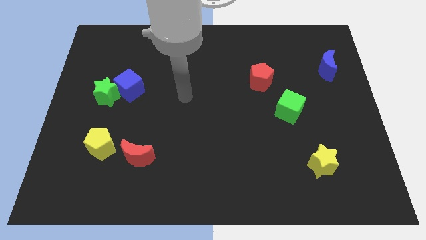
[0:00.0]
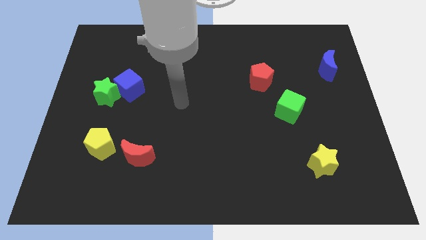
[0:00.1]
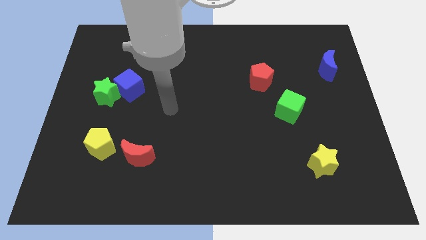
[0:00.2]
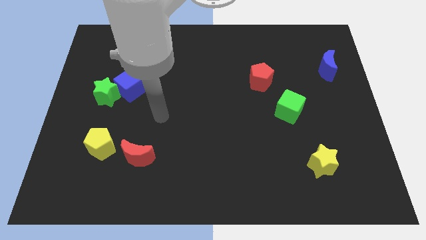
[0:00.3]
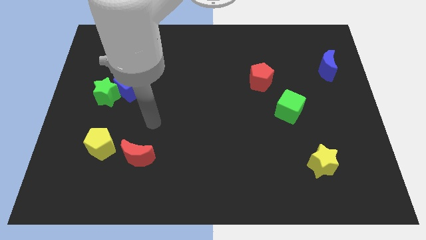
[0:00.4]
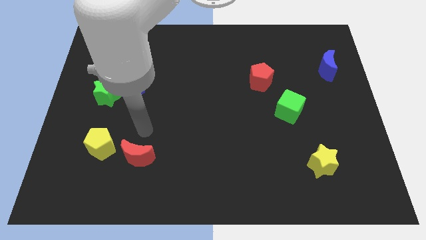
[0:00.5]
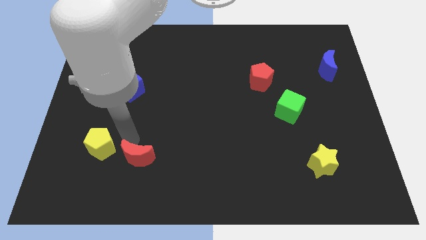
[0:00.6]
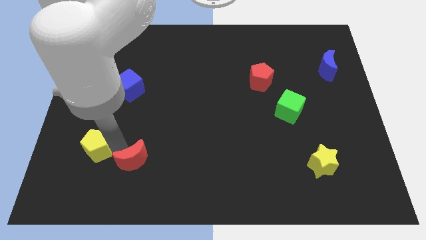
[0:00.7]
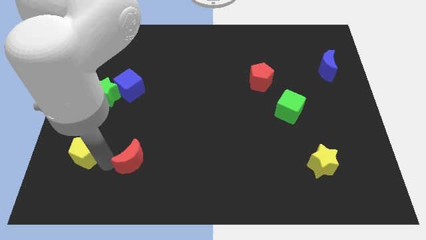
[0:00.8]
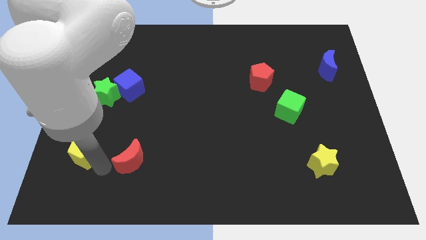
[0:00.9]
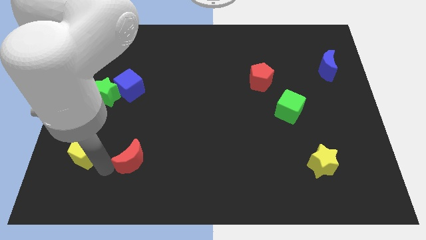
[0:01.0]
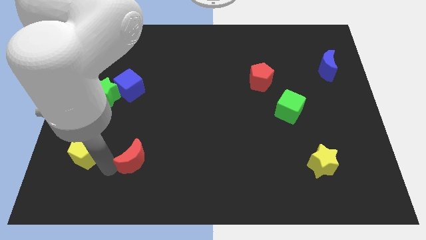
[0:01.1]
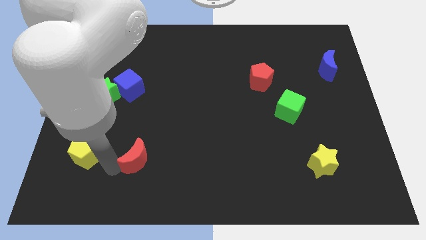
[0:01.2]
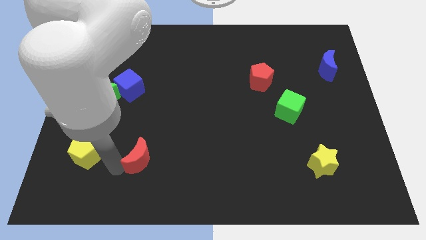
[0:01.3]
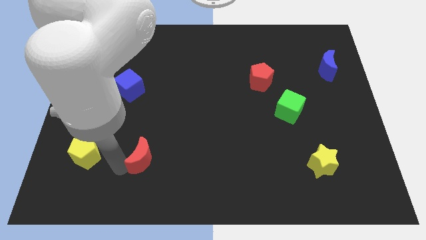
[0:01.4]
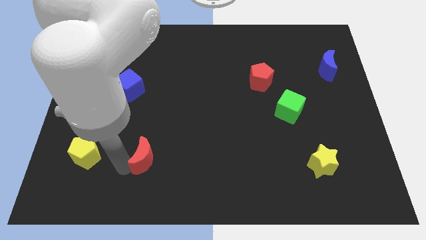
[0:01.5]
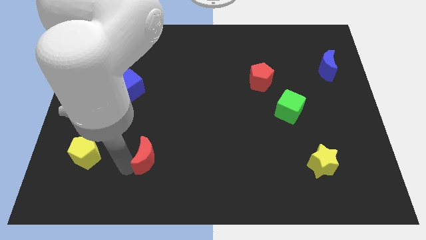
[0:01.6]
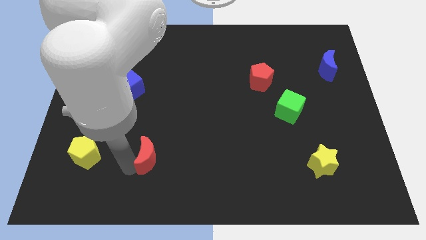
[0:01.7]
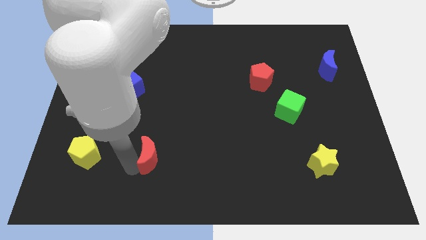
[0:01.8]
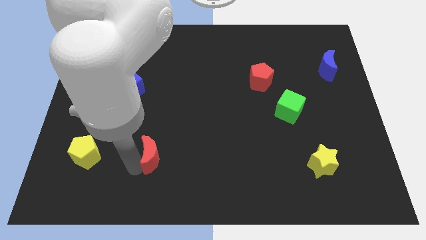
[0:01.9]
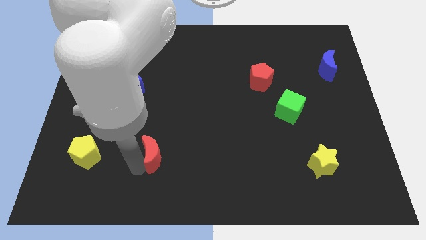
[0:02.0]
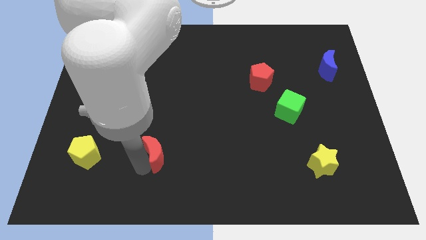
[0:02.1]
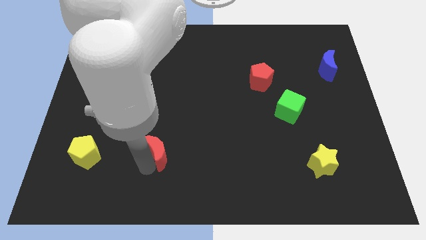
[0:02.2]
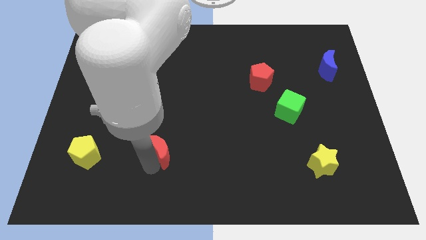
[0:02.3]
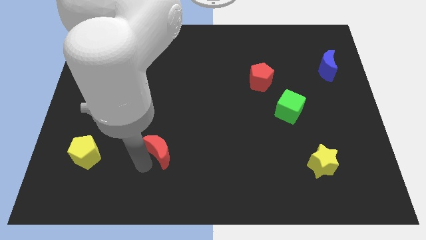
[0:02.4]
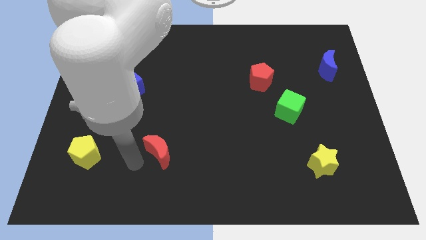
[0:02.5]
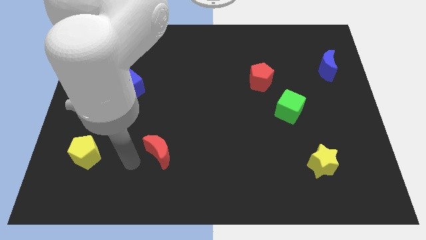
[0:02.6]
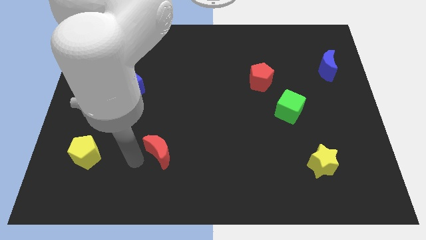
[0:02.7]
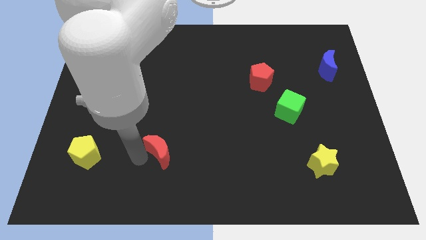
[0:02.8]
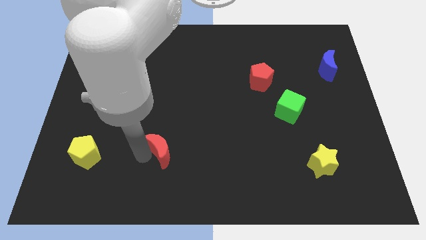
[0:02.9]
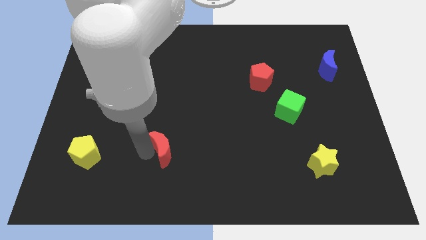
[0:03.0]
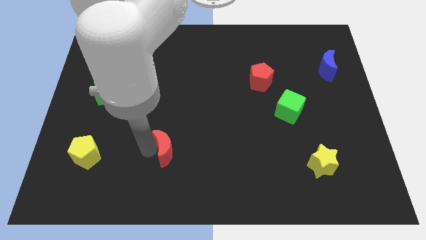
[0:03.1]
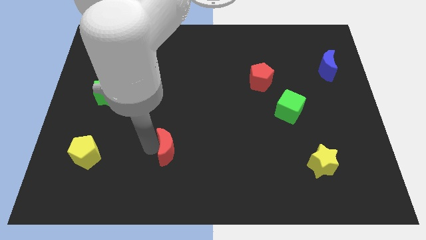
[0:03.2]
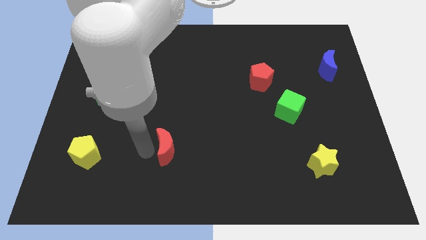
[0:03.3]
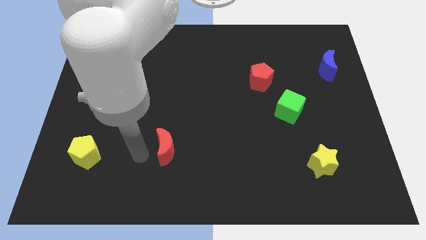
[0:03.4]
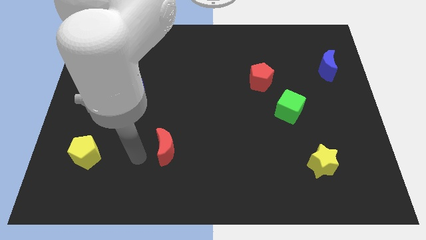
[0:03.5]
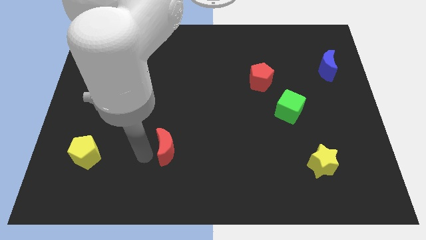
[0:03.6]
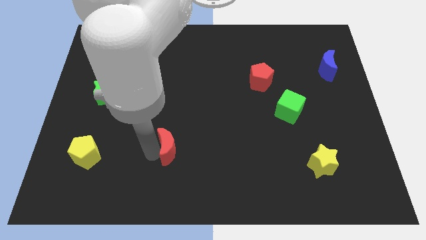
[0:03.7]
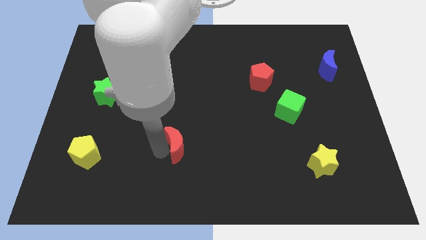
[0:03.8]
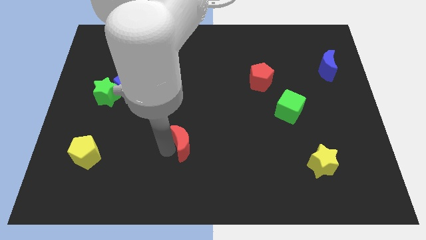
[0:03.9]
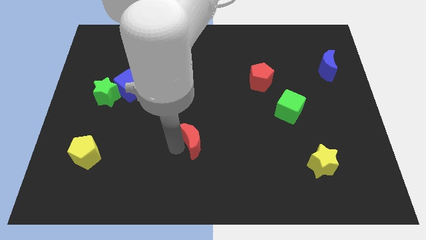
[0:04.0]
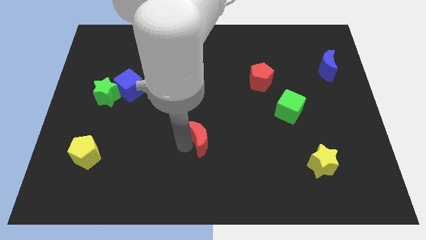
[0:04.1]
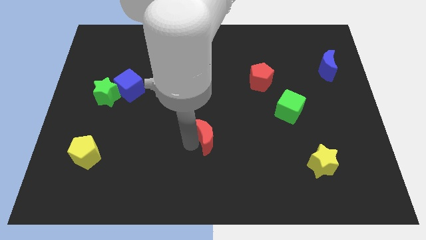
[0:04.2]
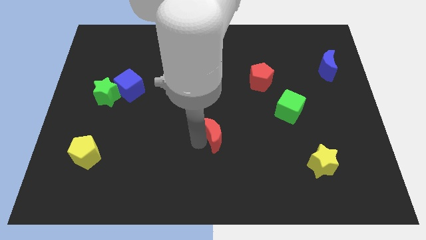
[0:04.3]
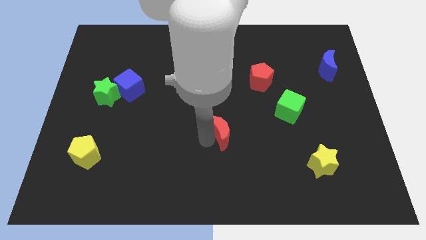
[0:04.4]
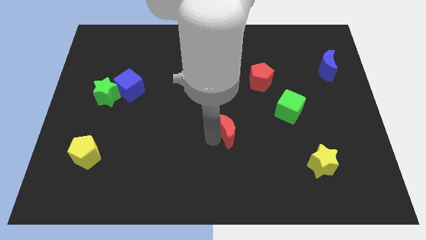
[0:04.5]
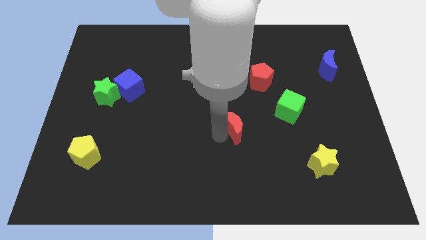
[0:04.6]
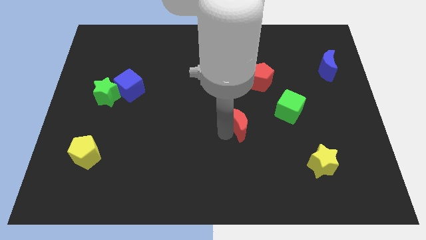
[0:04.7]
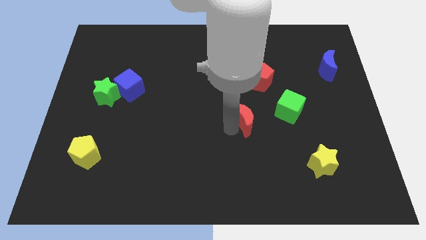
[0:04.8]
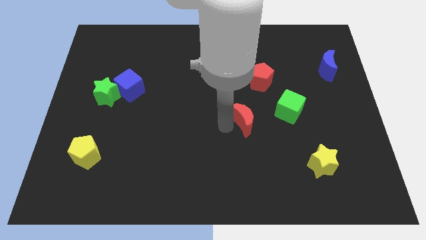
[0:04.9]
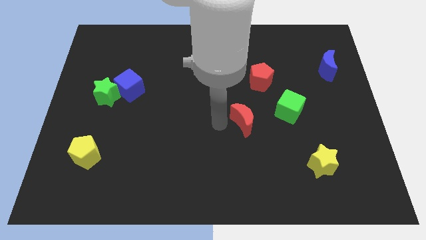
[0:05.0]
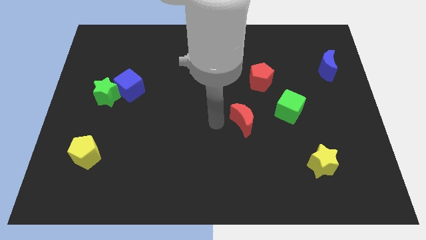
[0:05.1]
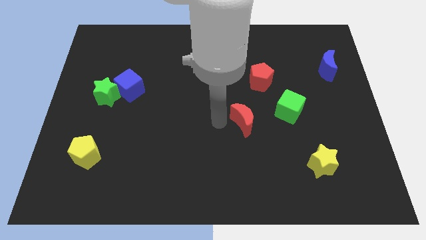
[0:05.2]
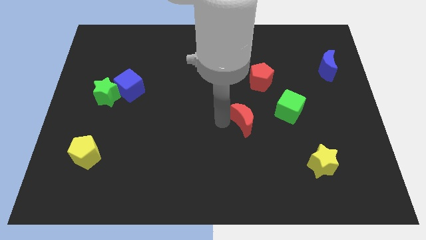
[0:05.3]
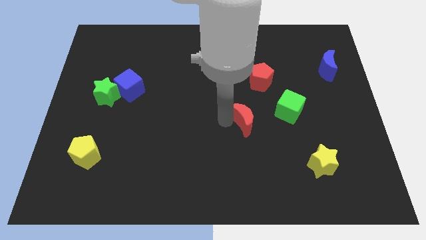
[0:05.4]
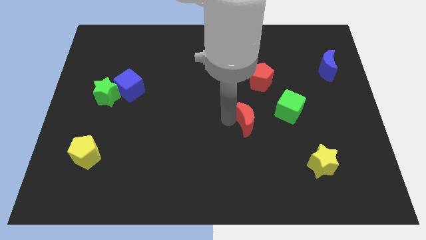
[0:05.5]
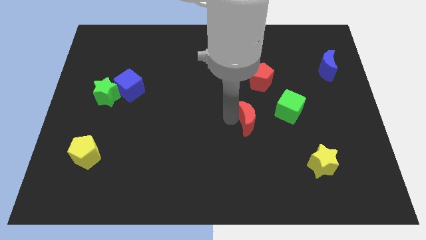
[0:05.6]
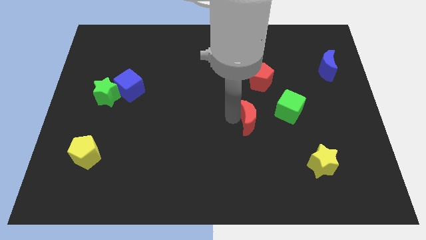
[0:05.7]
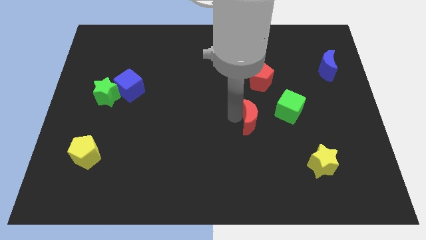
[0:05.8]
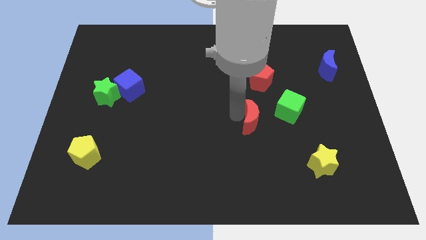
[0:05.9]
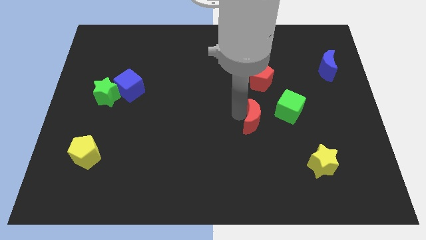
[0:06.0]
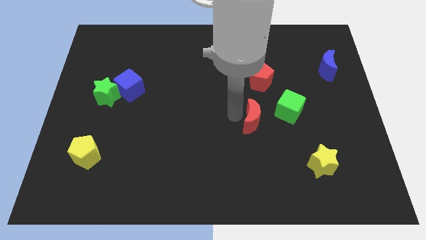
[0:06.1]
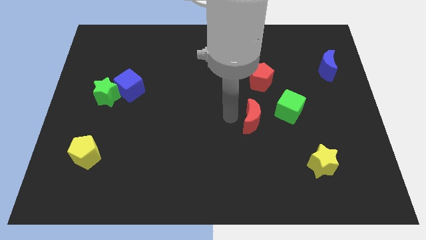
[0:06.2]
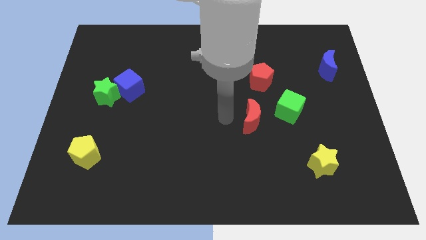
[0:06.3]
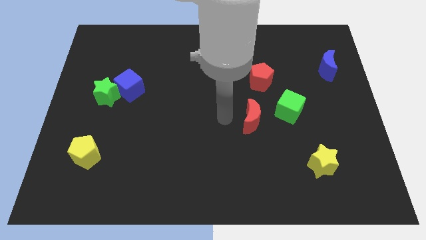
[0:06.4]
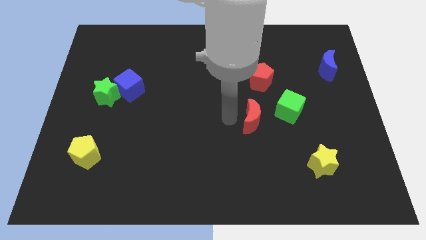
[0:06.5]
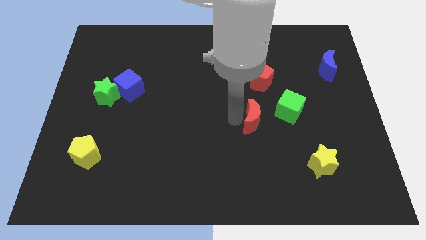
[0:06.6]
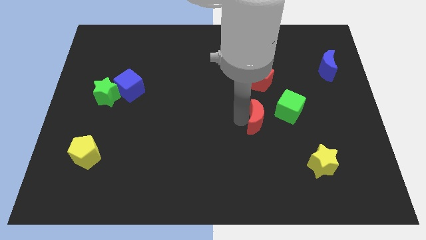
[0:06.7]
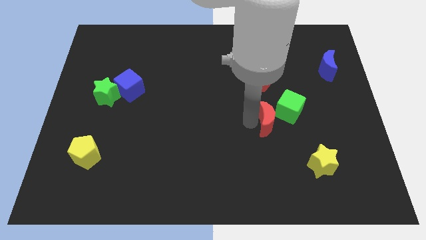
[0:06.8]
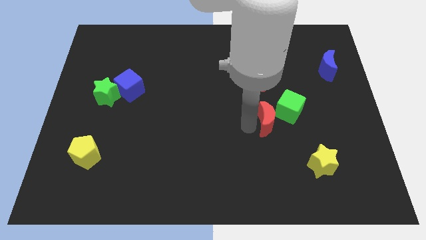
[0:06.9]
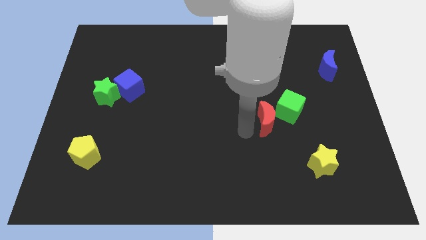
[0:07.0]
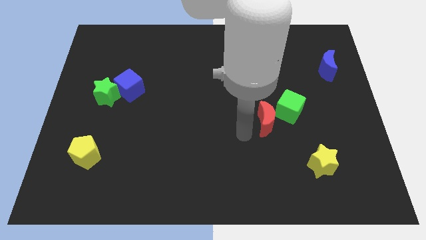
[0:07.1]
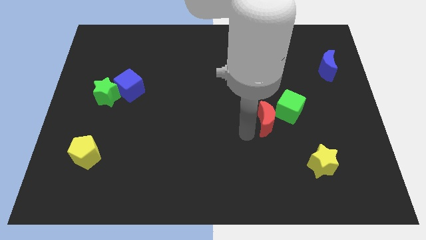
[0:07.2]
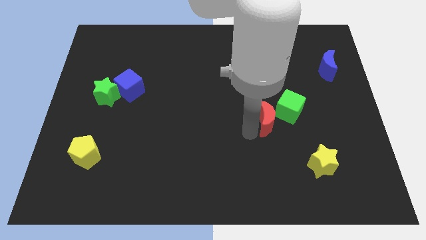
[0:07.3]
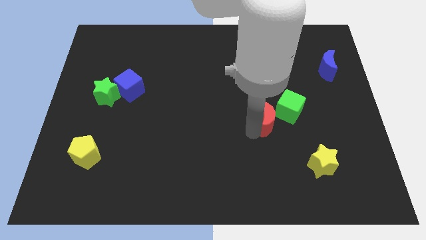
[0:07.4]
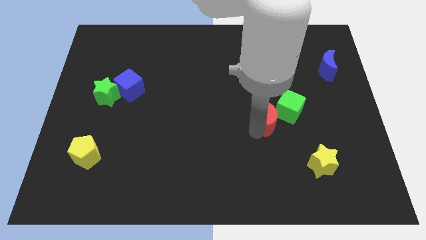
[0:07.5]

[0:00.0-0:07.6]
move the red moon next to the green cube
